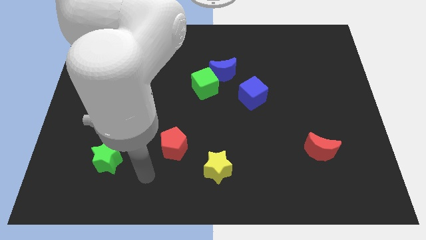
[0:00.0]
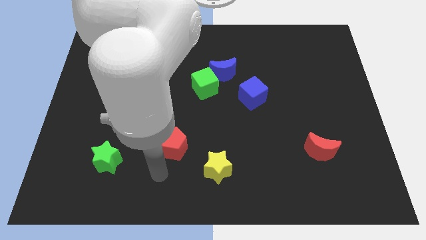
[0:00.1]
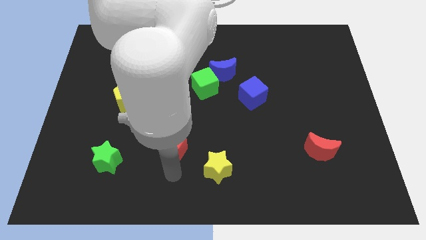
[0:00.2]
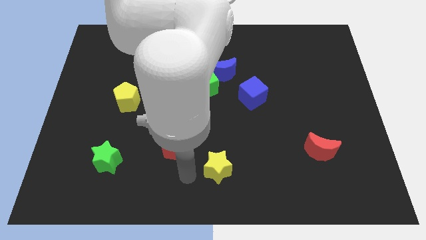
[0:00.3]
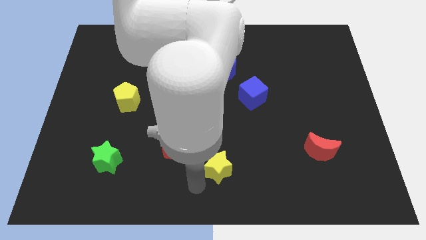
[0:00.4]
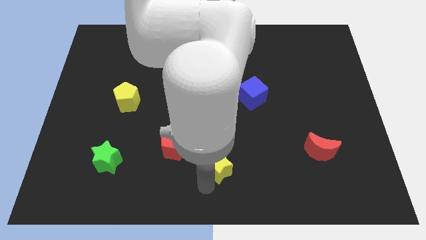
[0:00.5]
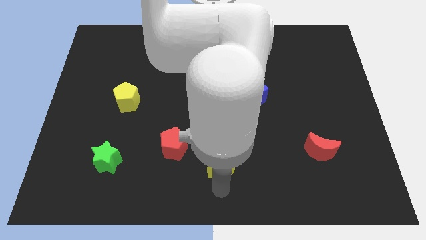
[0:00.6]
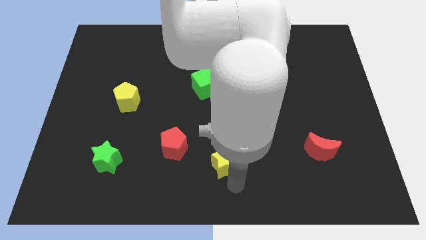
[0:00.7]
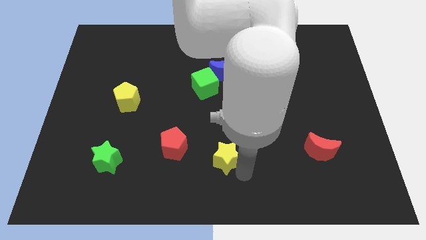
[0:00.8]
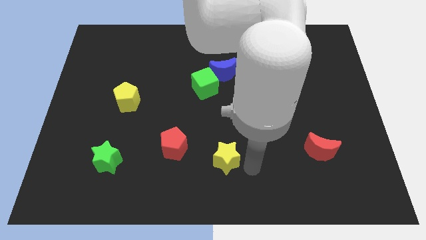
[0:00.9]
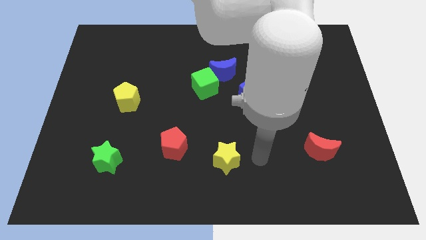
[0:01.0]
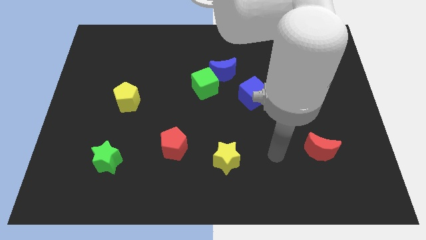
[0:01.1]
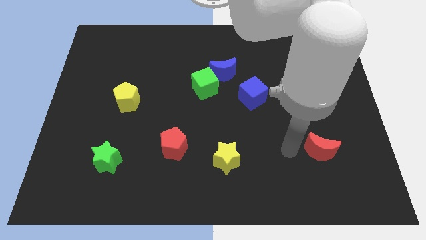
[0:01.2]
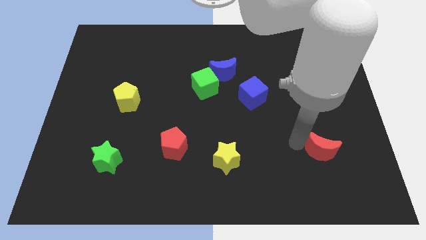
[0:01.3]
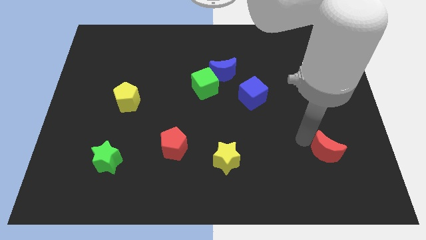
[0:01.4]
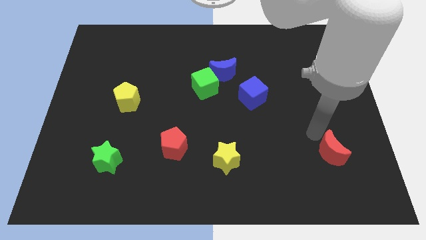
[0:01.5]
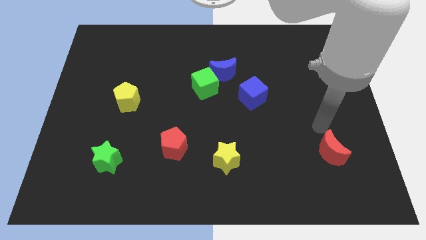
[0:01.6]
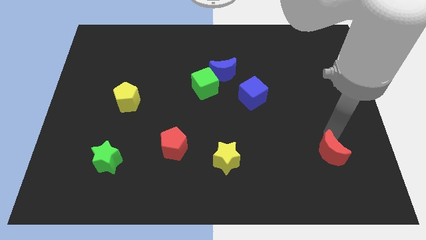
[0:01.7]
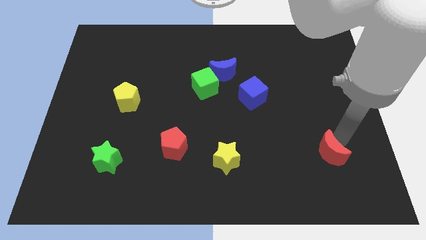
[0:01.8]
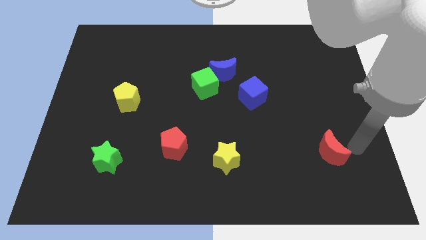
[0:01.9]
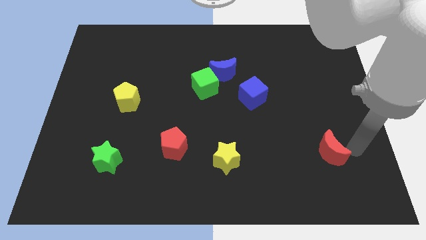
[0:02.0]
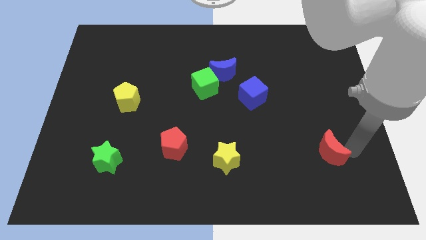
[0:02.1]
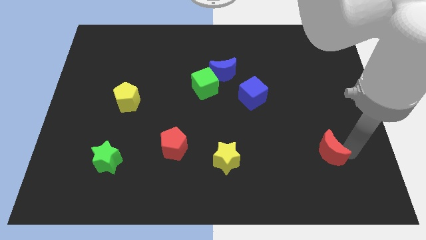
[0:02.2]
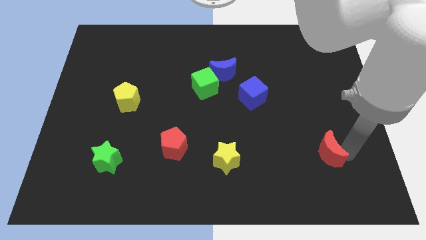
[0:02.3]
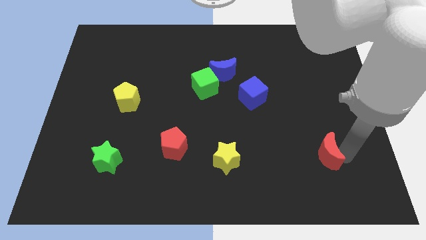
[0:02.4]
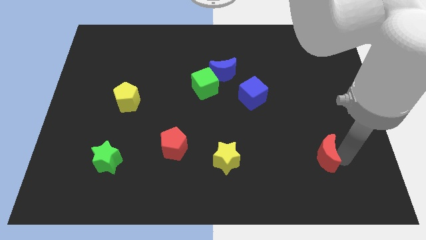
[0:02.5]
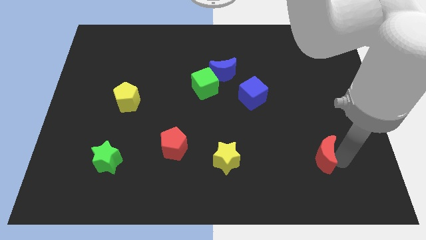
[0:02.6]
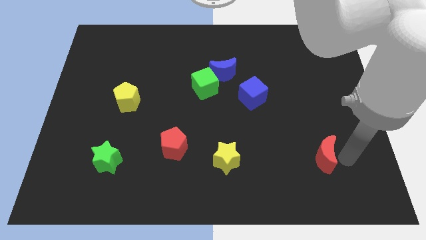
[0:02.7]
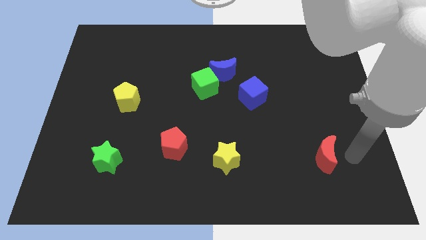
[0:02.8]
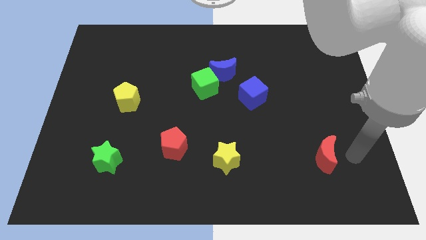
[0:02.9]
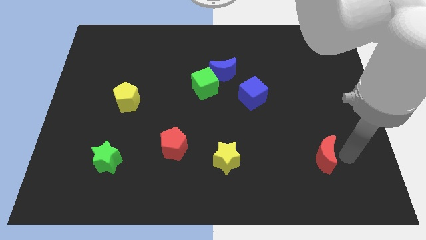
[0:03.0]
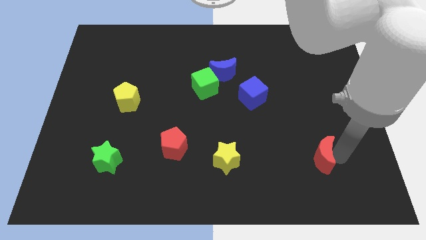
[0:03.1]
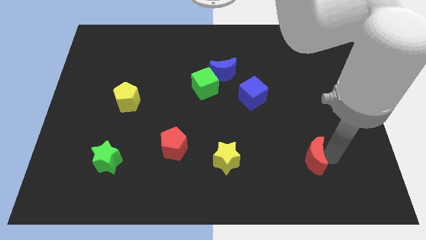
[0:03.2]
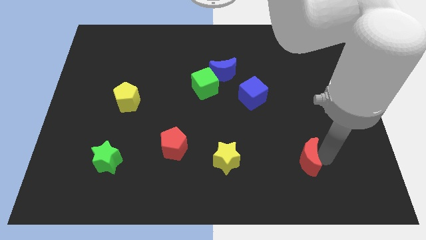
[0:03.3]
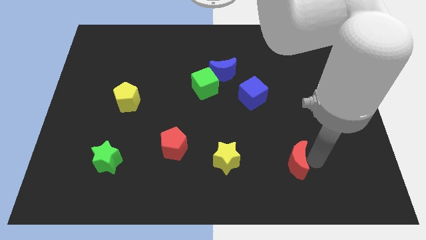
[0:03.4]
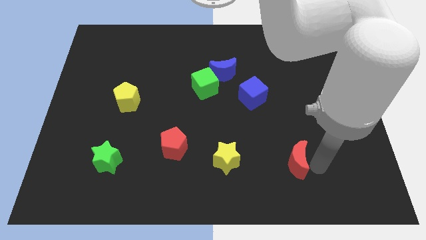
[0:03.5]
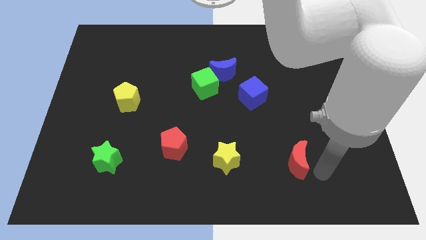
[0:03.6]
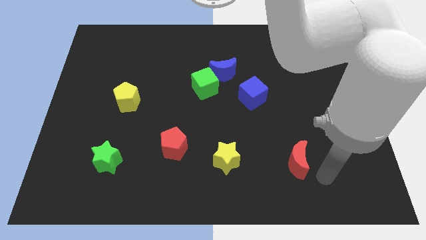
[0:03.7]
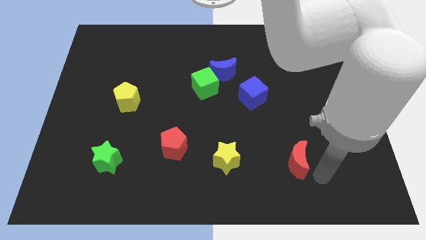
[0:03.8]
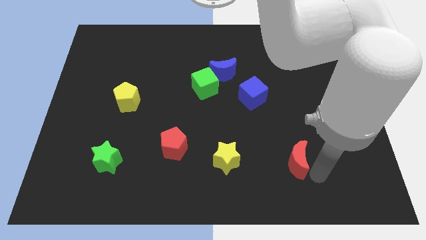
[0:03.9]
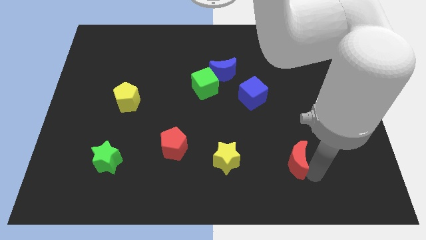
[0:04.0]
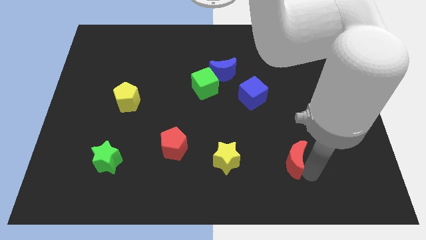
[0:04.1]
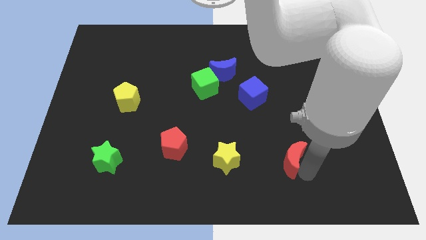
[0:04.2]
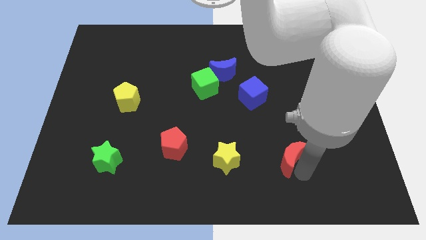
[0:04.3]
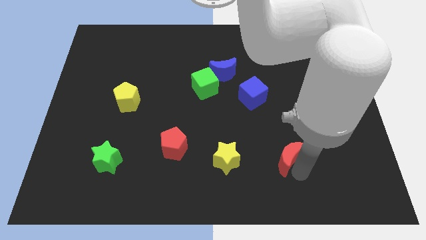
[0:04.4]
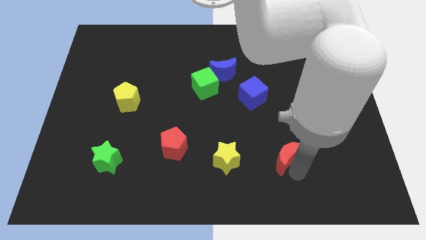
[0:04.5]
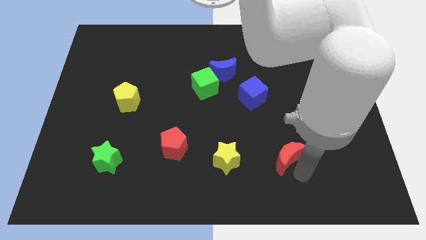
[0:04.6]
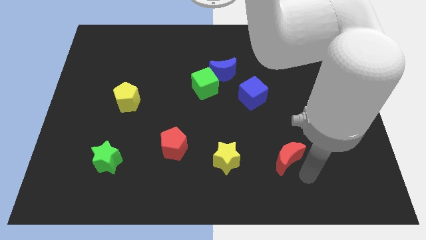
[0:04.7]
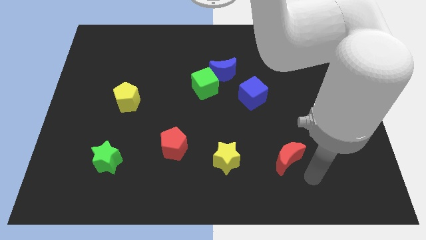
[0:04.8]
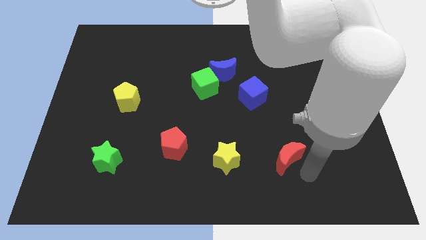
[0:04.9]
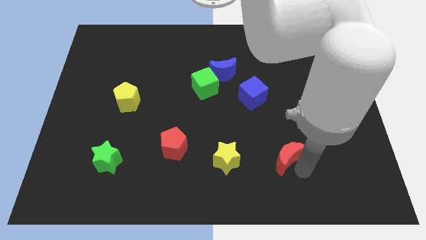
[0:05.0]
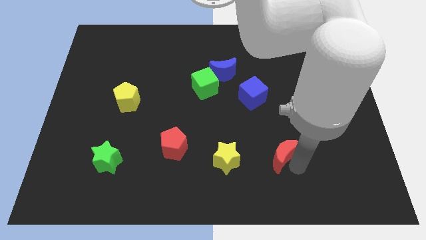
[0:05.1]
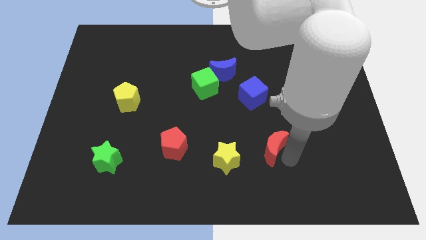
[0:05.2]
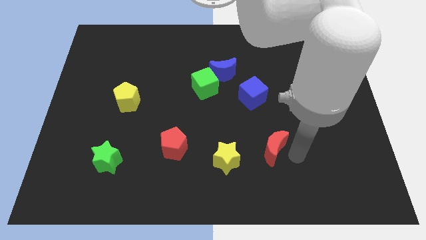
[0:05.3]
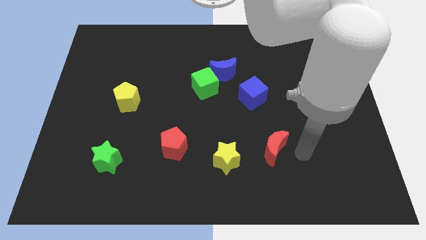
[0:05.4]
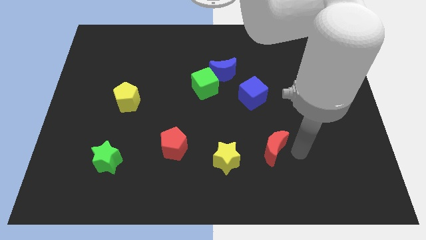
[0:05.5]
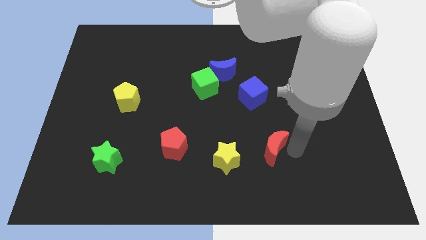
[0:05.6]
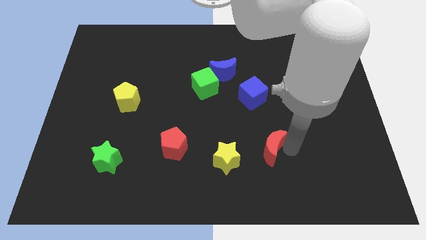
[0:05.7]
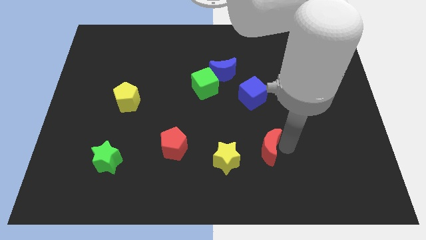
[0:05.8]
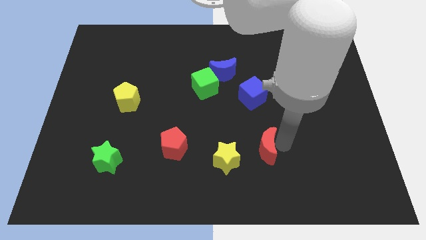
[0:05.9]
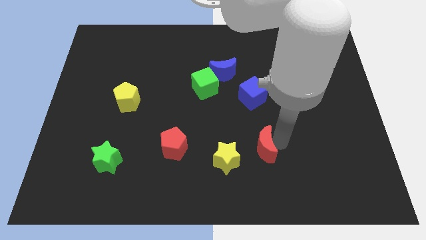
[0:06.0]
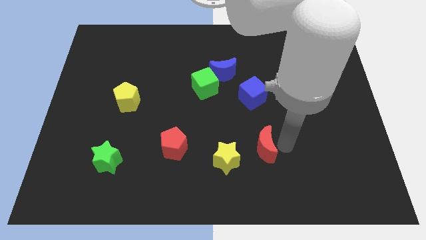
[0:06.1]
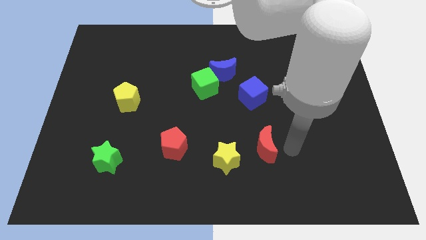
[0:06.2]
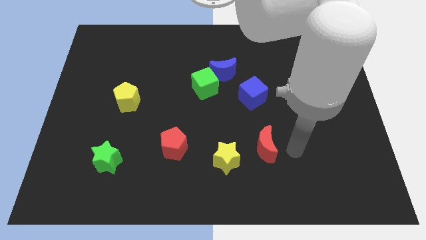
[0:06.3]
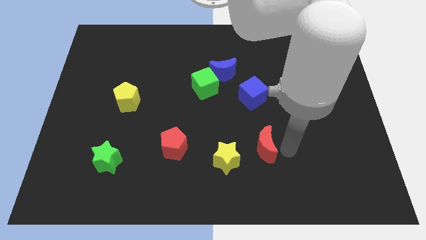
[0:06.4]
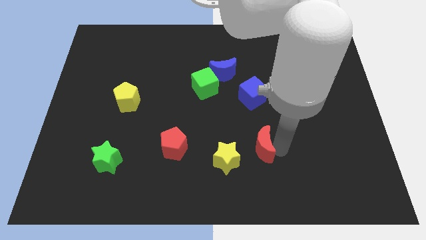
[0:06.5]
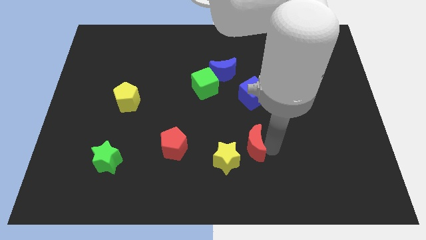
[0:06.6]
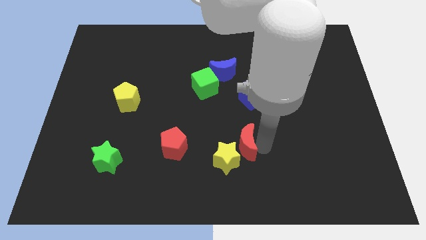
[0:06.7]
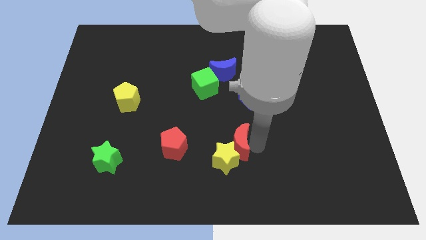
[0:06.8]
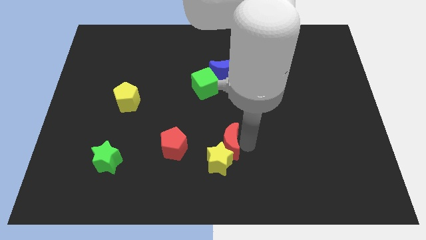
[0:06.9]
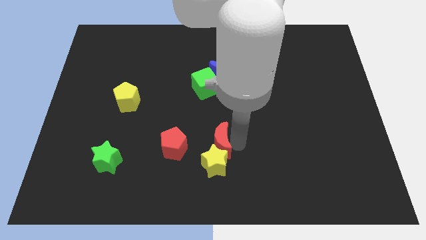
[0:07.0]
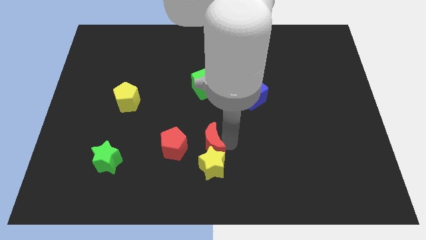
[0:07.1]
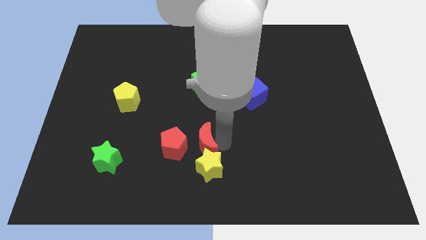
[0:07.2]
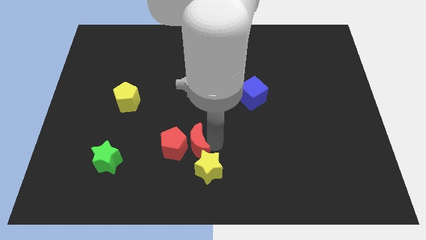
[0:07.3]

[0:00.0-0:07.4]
move the red moon towards the red pentagon
